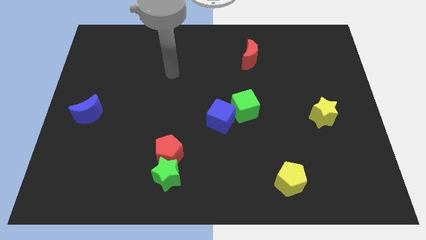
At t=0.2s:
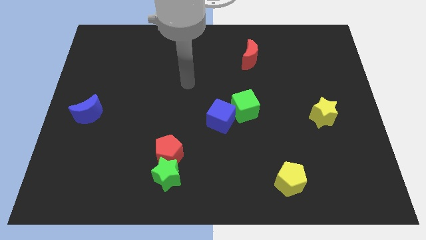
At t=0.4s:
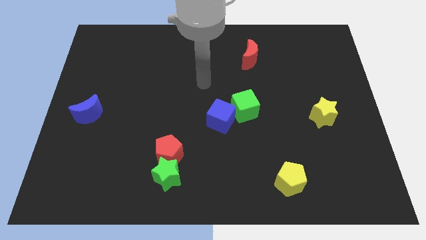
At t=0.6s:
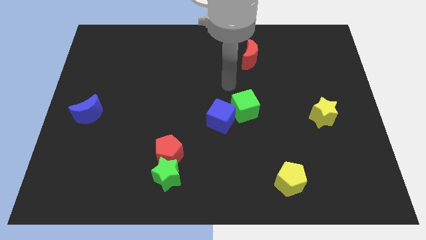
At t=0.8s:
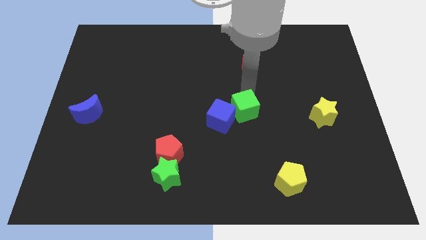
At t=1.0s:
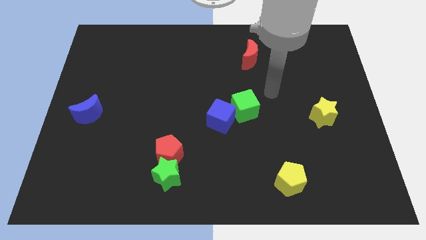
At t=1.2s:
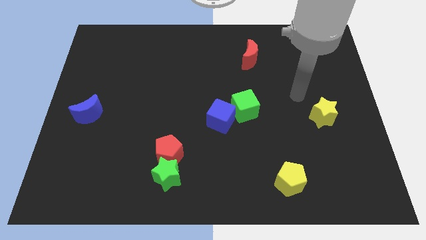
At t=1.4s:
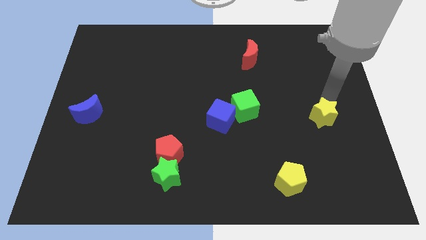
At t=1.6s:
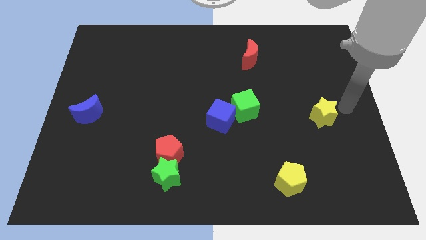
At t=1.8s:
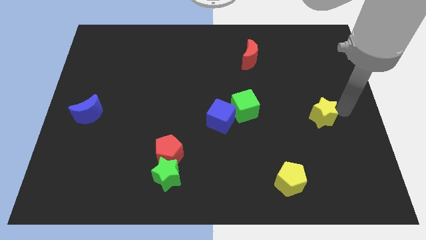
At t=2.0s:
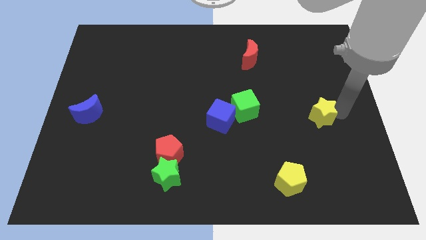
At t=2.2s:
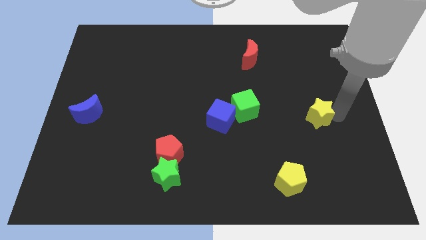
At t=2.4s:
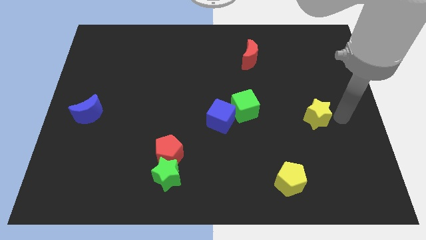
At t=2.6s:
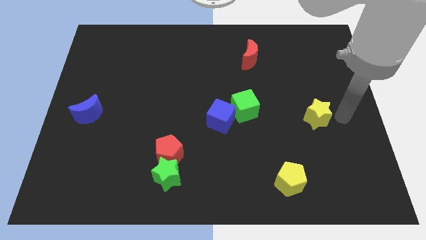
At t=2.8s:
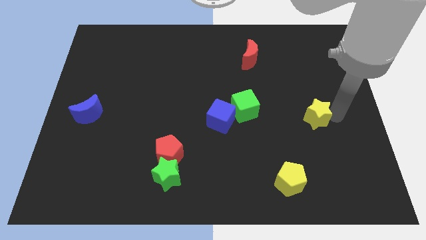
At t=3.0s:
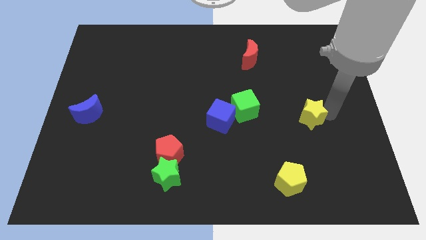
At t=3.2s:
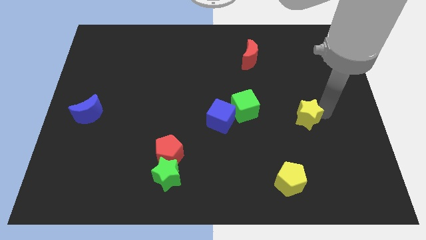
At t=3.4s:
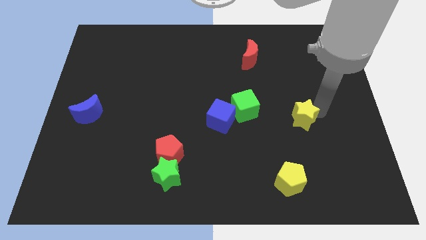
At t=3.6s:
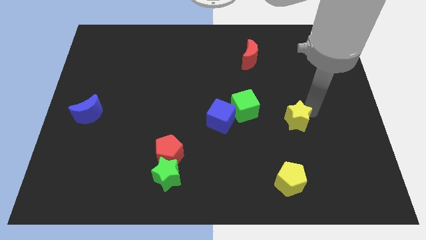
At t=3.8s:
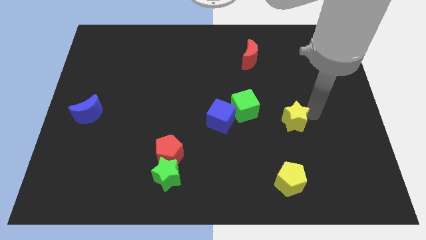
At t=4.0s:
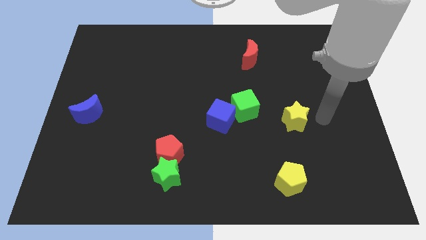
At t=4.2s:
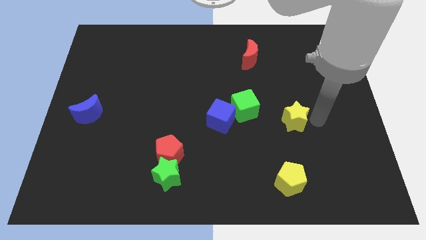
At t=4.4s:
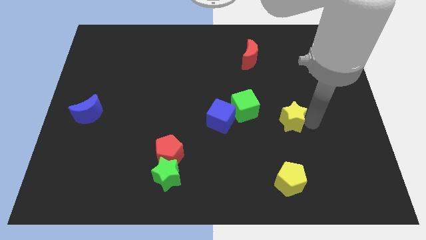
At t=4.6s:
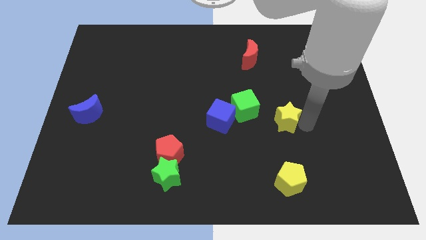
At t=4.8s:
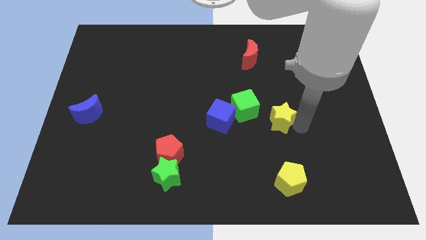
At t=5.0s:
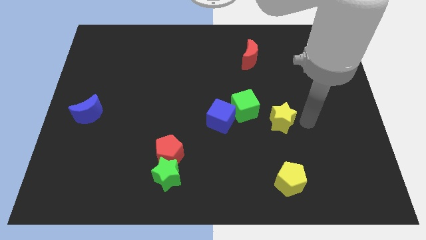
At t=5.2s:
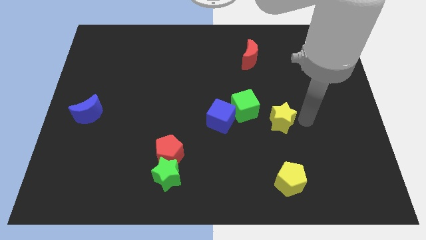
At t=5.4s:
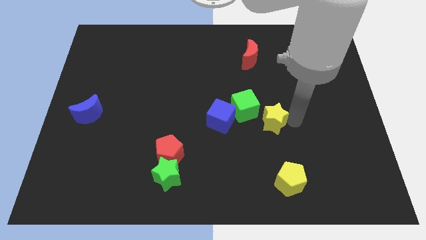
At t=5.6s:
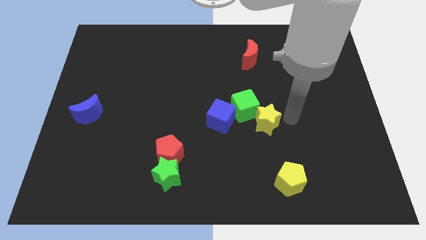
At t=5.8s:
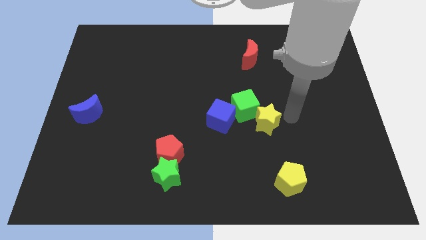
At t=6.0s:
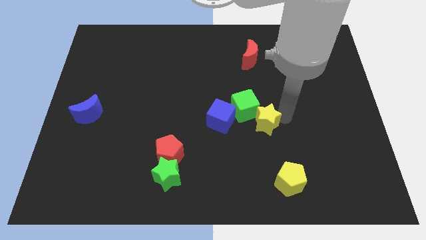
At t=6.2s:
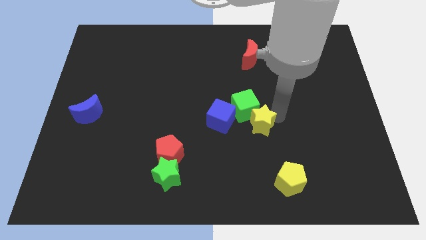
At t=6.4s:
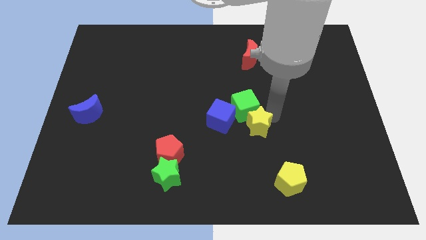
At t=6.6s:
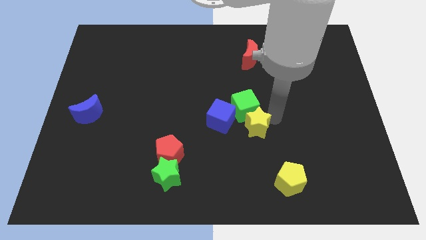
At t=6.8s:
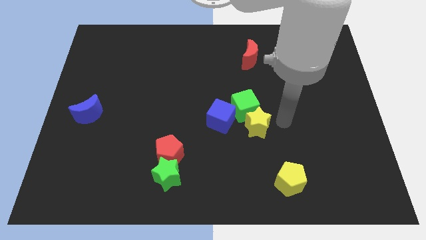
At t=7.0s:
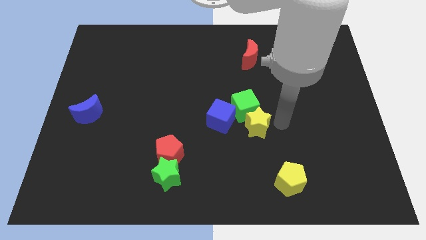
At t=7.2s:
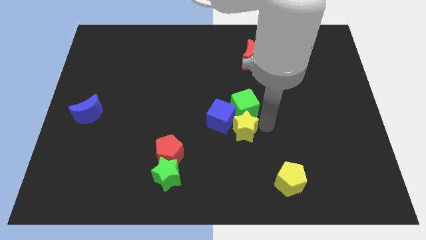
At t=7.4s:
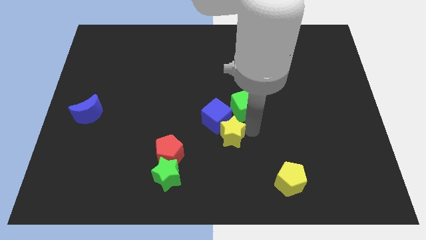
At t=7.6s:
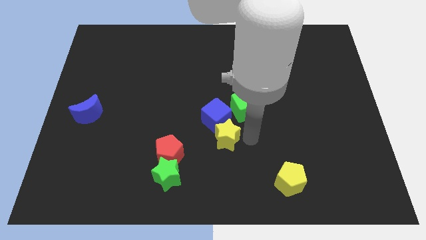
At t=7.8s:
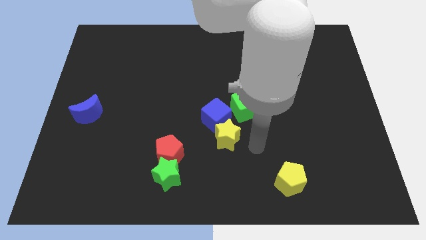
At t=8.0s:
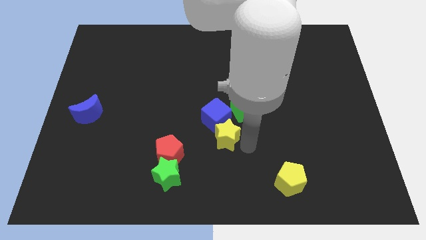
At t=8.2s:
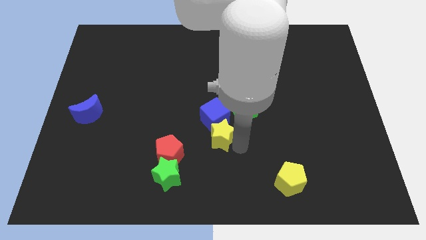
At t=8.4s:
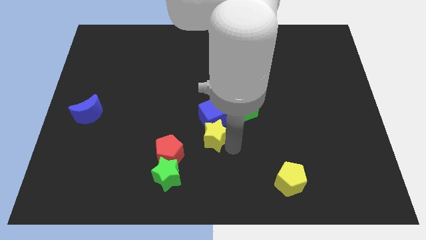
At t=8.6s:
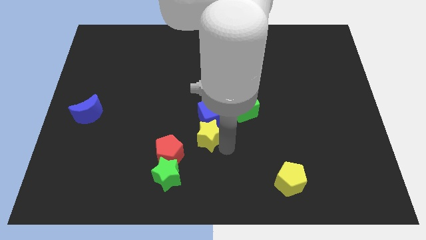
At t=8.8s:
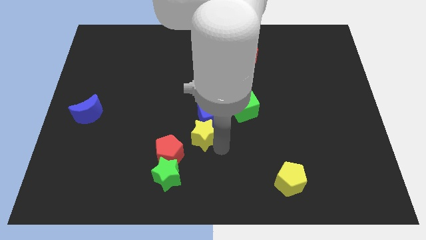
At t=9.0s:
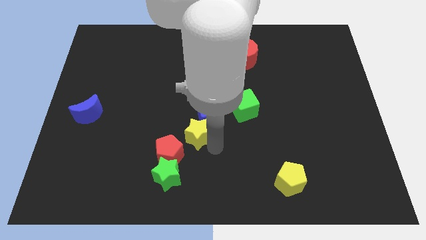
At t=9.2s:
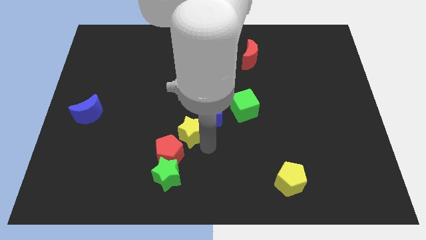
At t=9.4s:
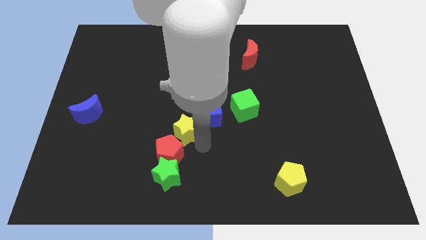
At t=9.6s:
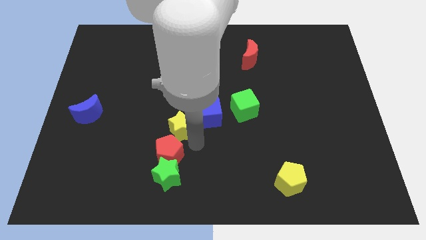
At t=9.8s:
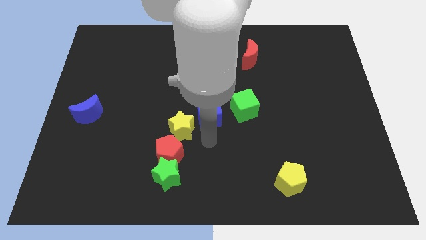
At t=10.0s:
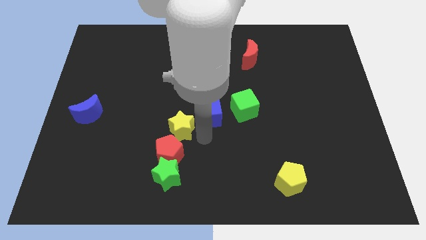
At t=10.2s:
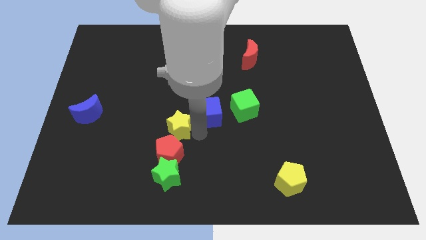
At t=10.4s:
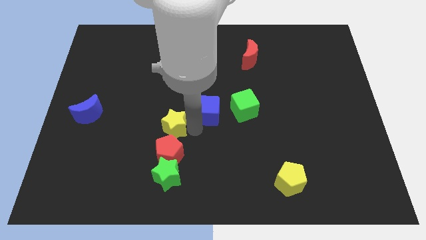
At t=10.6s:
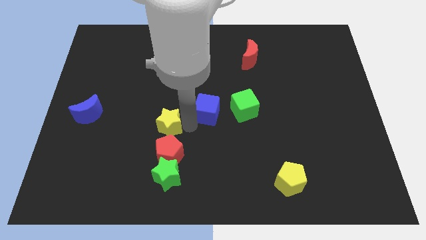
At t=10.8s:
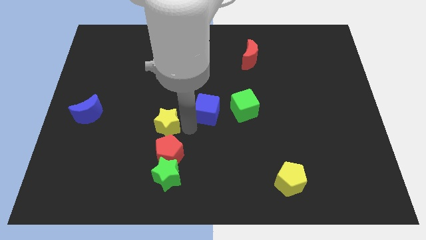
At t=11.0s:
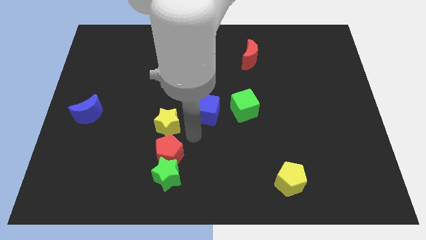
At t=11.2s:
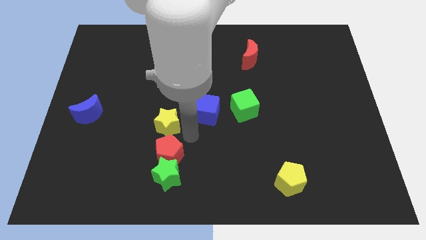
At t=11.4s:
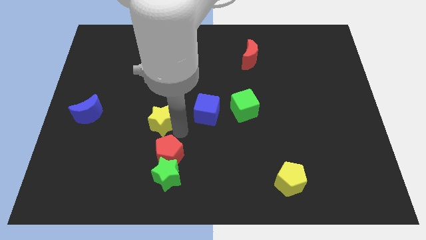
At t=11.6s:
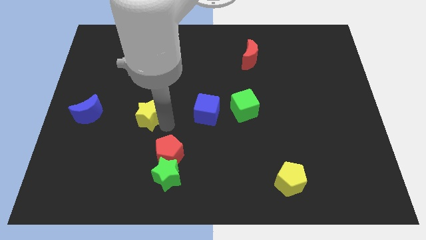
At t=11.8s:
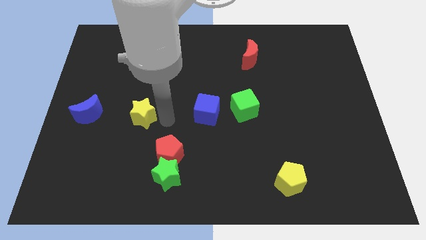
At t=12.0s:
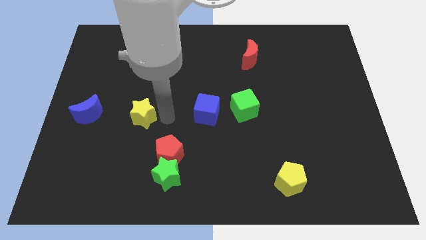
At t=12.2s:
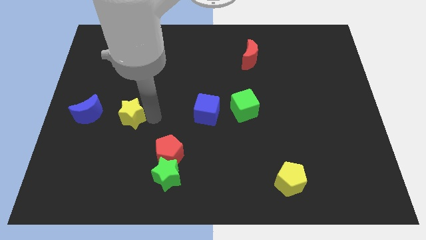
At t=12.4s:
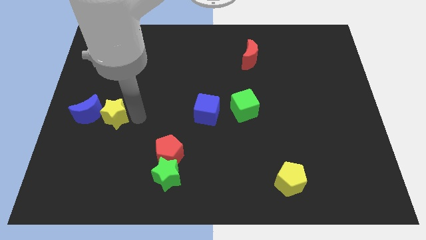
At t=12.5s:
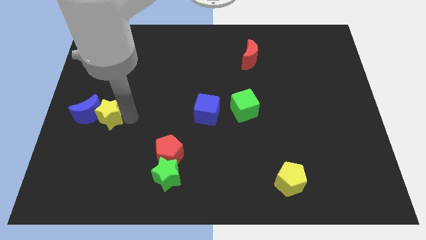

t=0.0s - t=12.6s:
put the yellow star close to the blue moon
